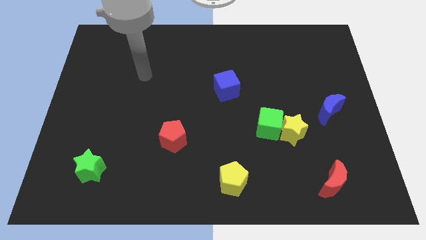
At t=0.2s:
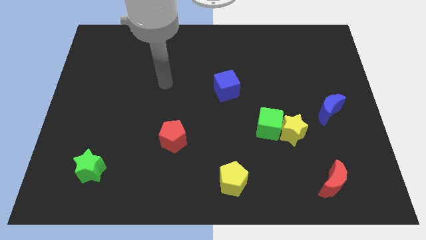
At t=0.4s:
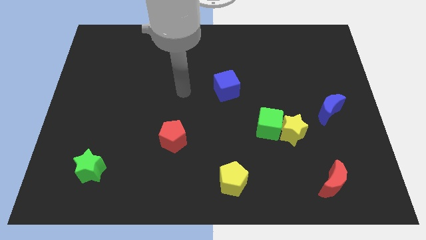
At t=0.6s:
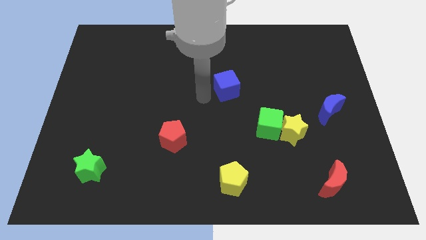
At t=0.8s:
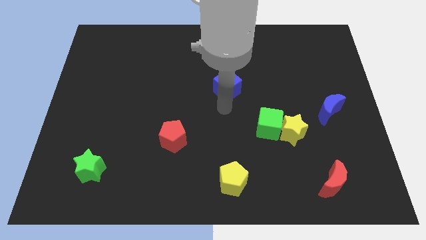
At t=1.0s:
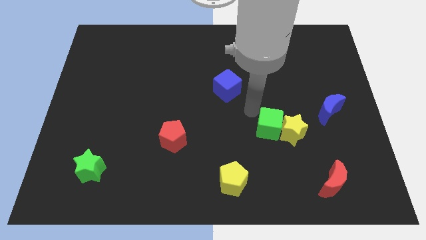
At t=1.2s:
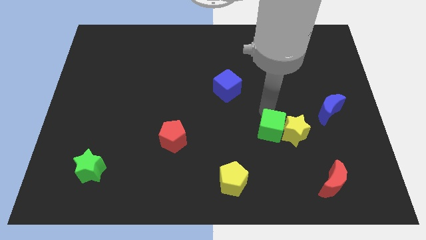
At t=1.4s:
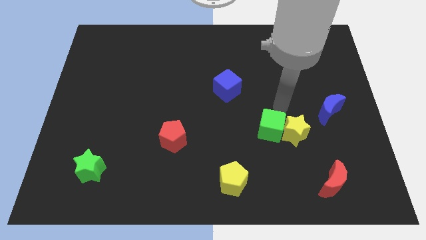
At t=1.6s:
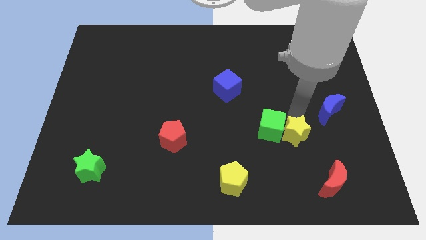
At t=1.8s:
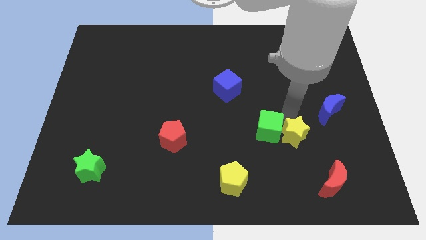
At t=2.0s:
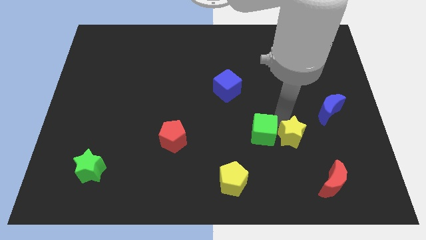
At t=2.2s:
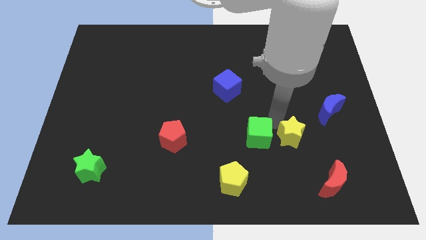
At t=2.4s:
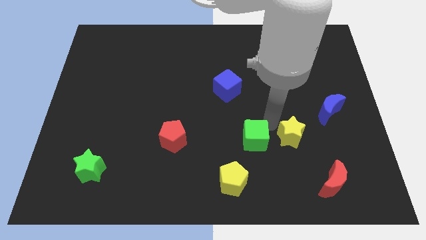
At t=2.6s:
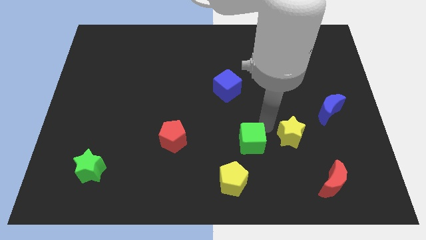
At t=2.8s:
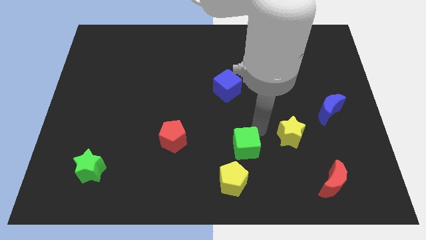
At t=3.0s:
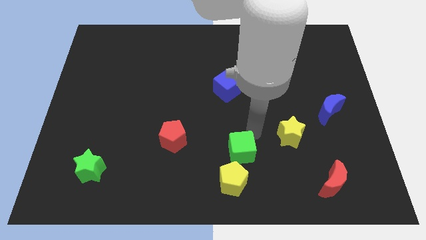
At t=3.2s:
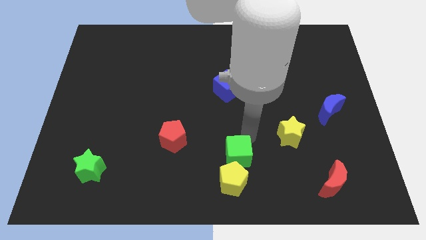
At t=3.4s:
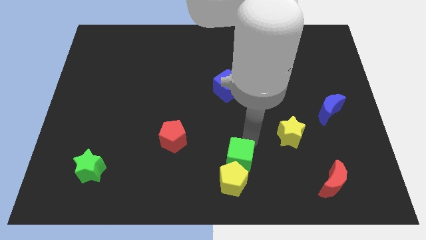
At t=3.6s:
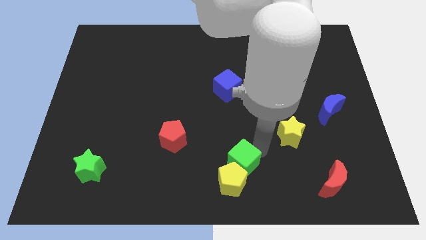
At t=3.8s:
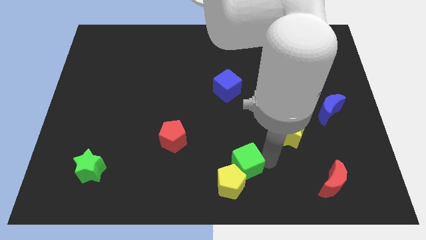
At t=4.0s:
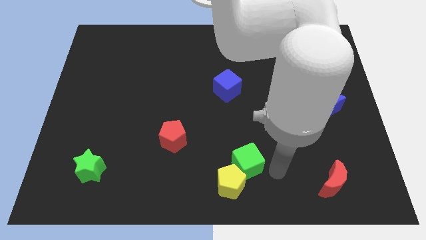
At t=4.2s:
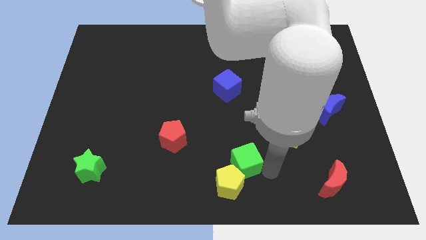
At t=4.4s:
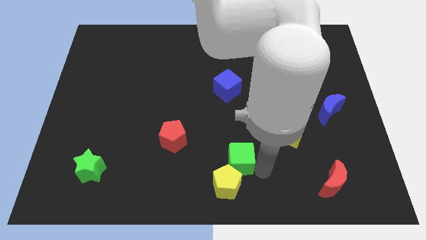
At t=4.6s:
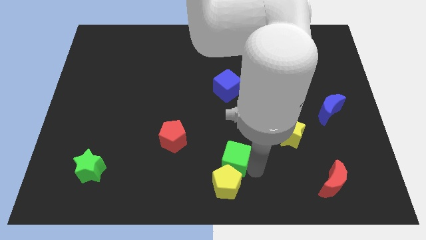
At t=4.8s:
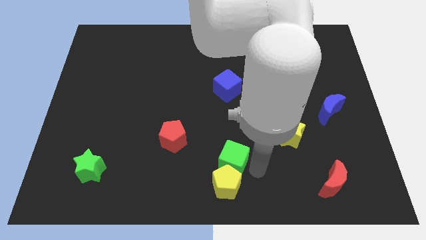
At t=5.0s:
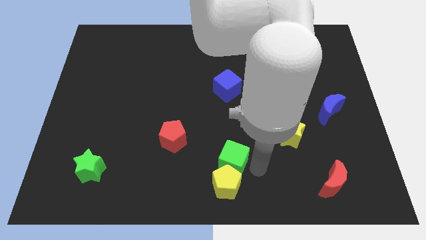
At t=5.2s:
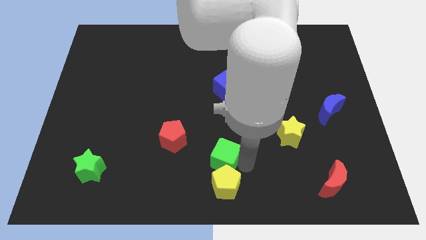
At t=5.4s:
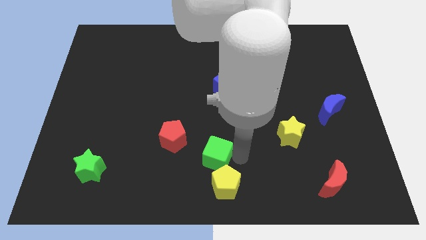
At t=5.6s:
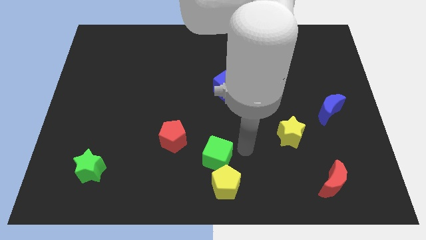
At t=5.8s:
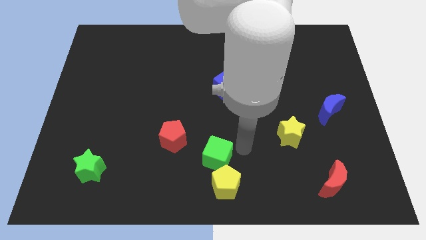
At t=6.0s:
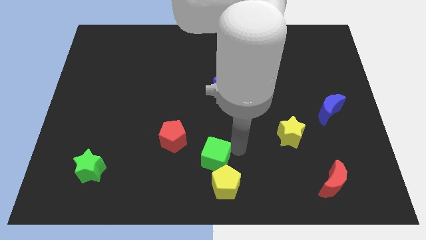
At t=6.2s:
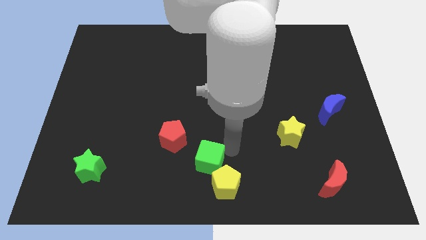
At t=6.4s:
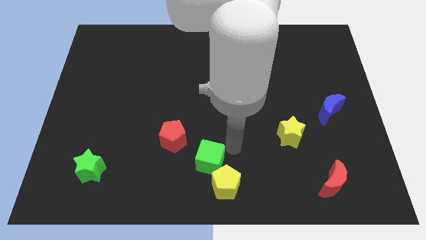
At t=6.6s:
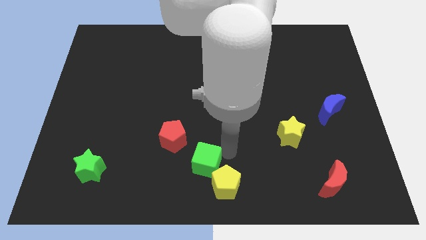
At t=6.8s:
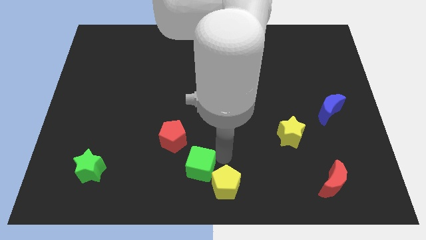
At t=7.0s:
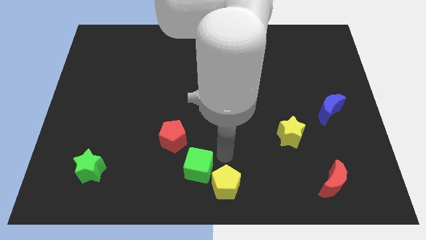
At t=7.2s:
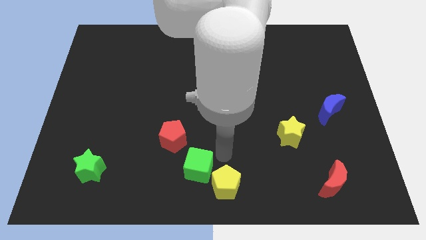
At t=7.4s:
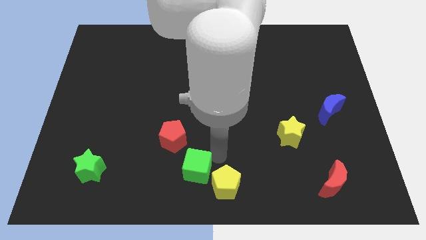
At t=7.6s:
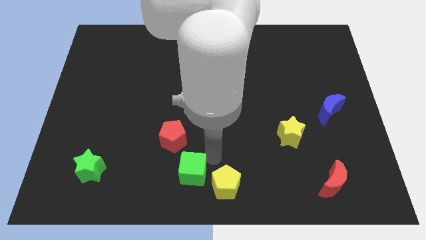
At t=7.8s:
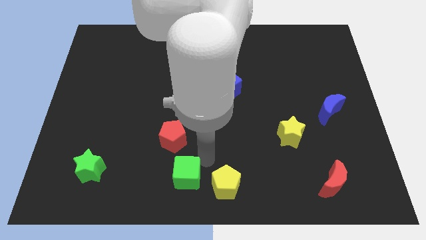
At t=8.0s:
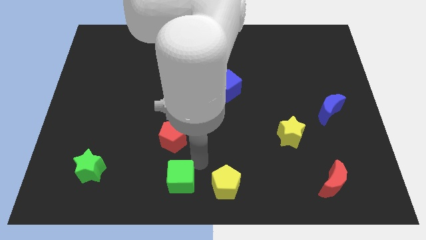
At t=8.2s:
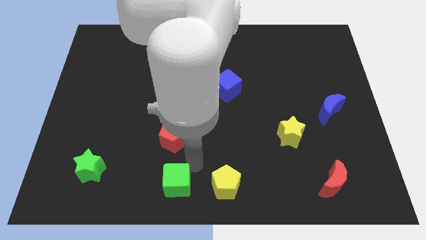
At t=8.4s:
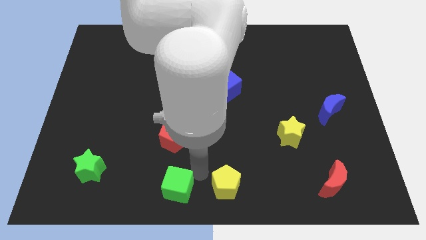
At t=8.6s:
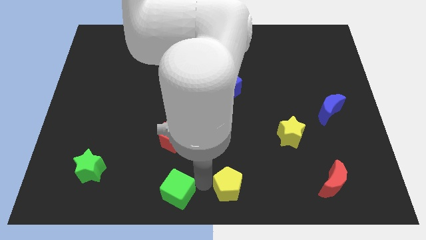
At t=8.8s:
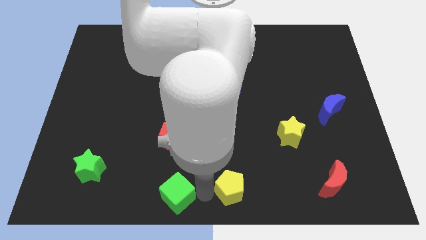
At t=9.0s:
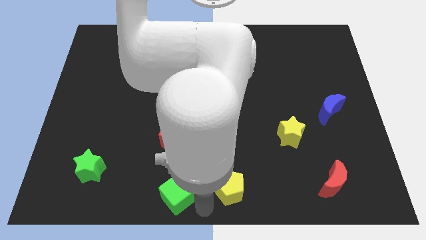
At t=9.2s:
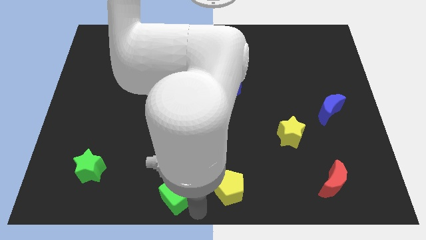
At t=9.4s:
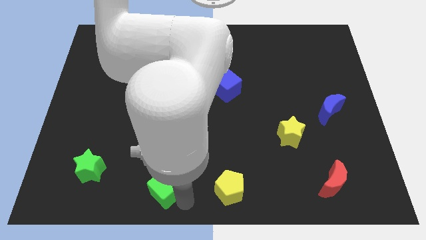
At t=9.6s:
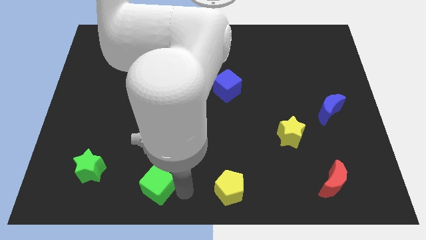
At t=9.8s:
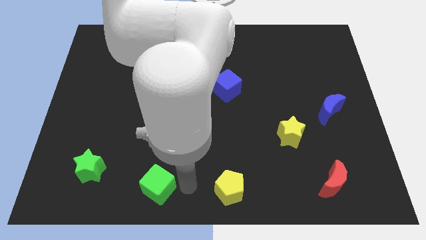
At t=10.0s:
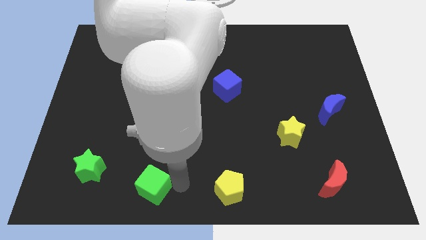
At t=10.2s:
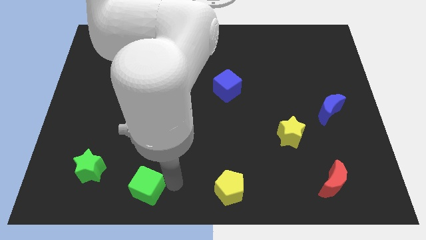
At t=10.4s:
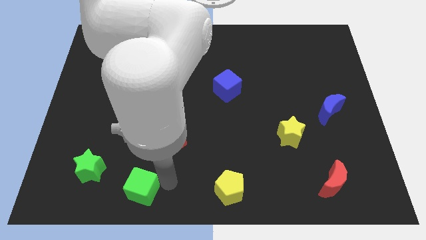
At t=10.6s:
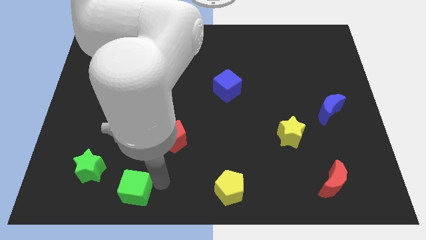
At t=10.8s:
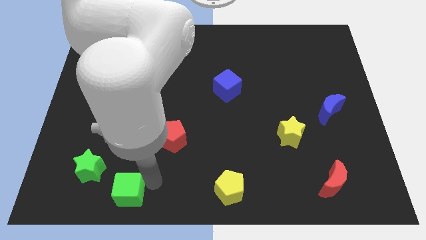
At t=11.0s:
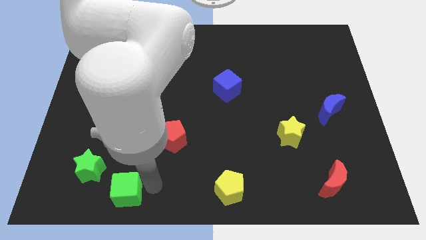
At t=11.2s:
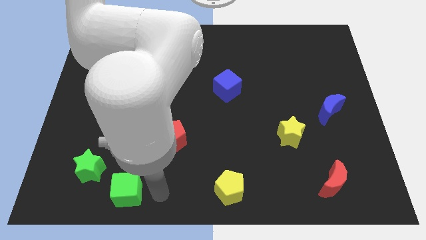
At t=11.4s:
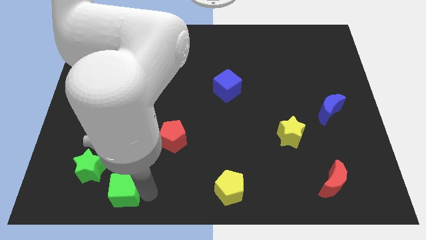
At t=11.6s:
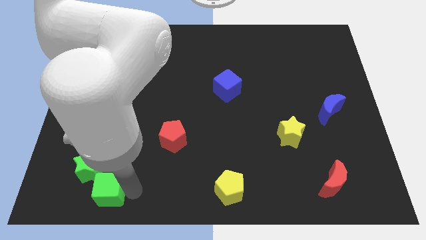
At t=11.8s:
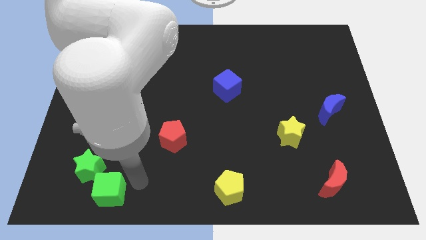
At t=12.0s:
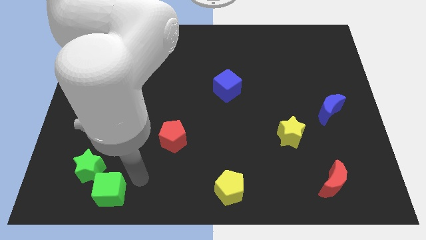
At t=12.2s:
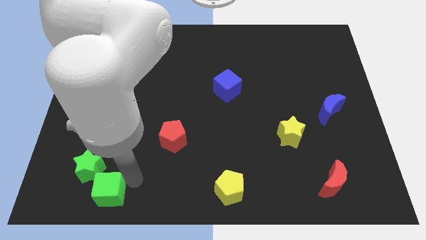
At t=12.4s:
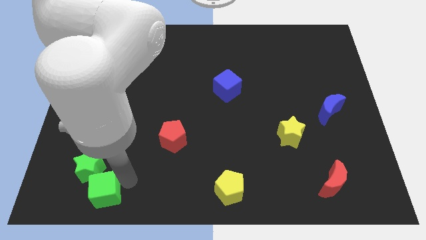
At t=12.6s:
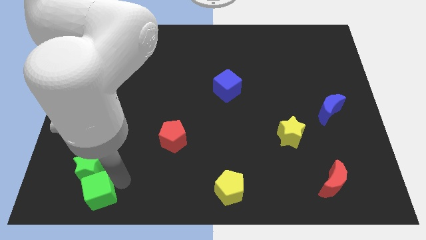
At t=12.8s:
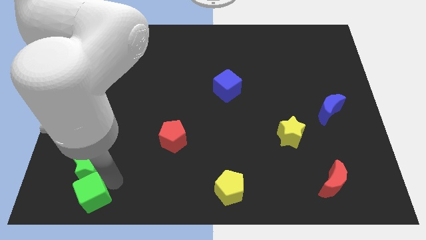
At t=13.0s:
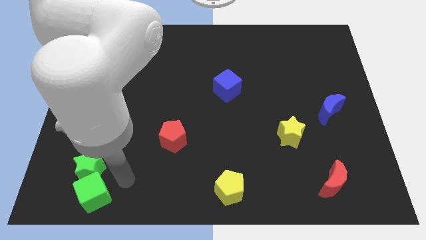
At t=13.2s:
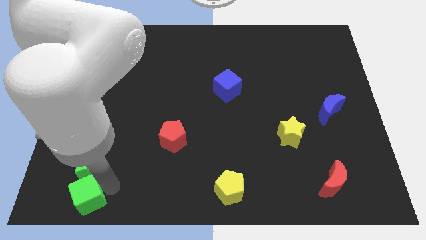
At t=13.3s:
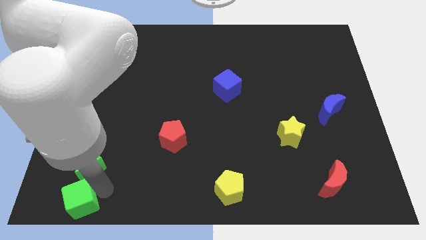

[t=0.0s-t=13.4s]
move the green cube to the bottom left

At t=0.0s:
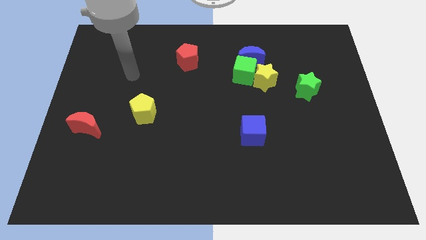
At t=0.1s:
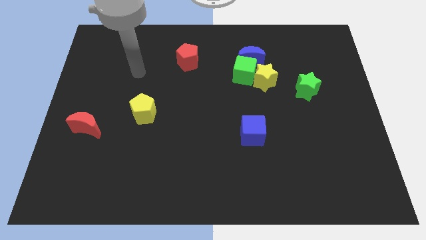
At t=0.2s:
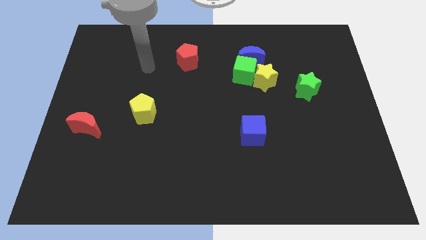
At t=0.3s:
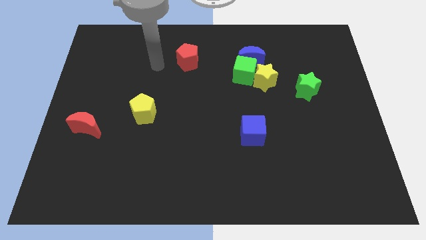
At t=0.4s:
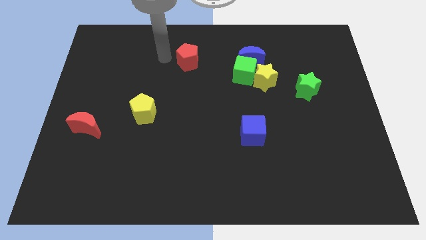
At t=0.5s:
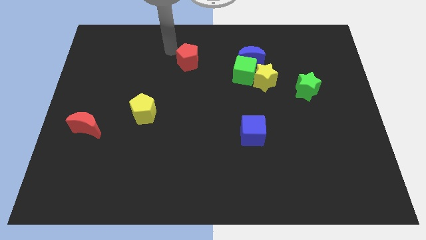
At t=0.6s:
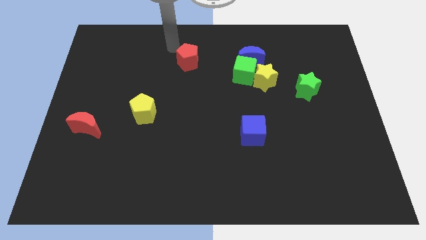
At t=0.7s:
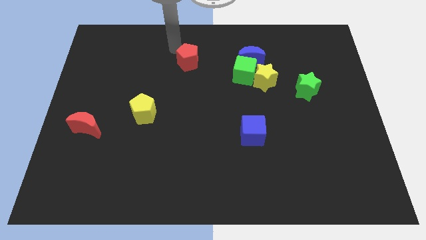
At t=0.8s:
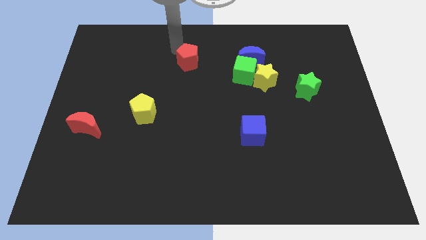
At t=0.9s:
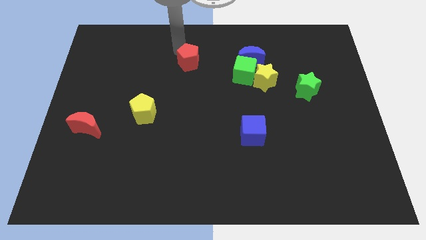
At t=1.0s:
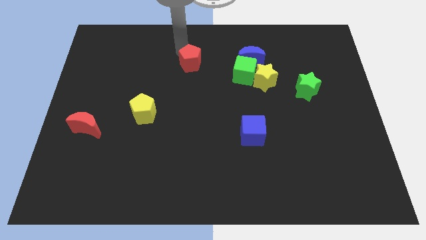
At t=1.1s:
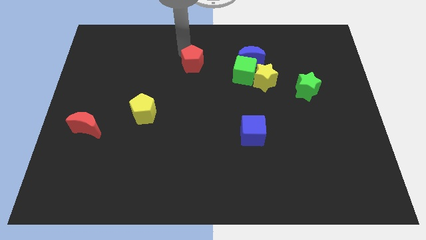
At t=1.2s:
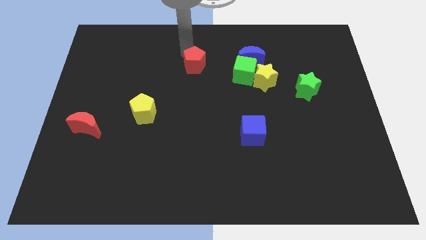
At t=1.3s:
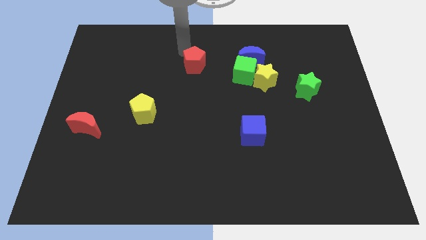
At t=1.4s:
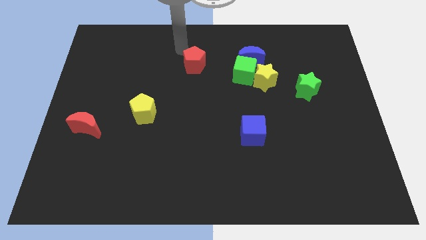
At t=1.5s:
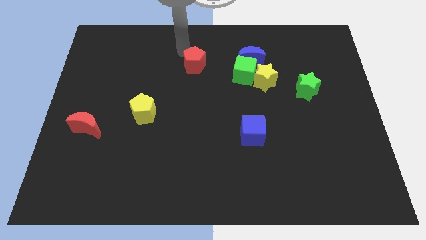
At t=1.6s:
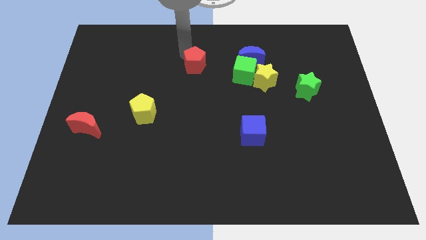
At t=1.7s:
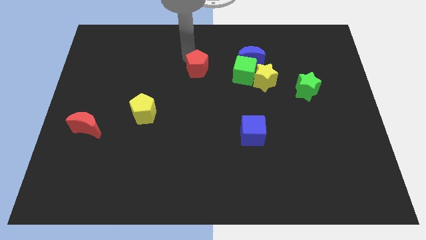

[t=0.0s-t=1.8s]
move the red pentagon to the center of the board
